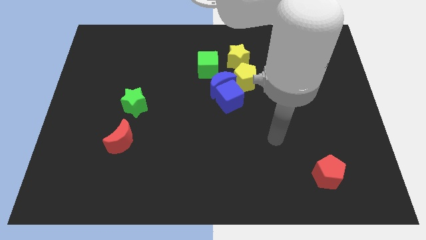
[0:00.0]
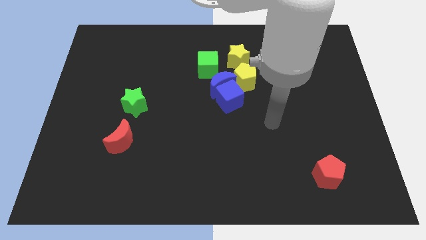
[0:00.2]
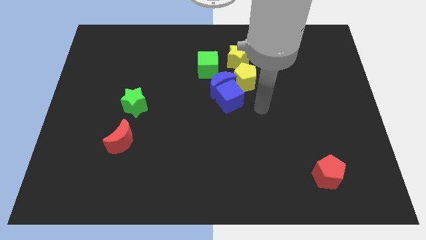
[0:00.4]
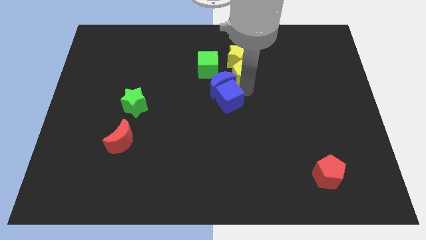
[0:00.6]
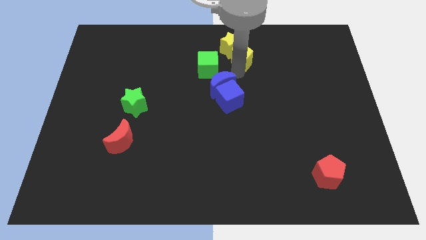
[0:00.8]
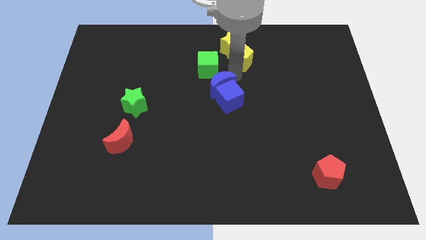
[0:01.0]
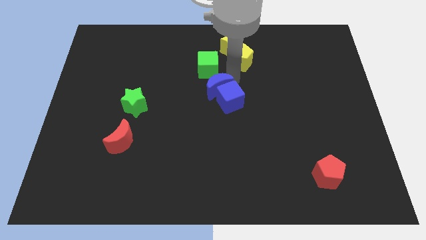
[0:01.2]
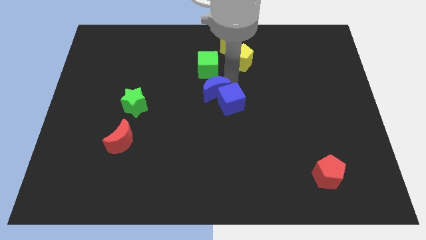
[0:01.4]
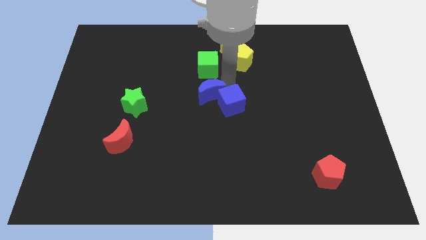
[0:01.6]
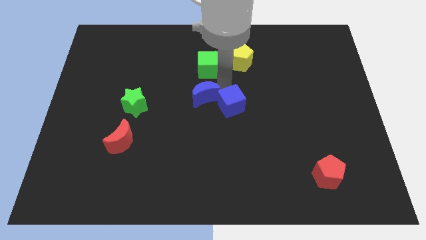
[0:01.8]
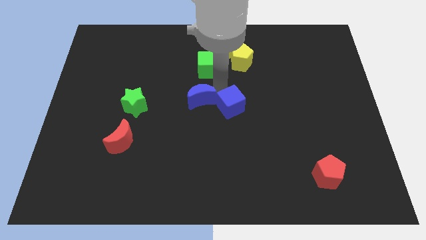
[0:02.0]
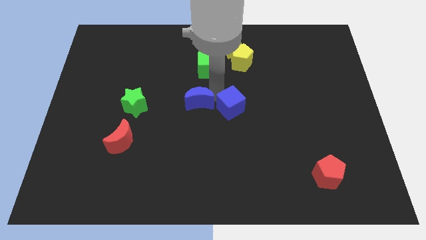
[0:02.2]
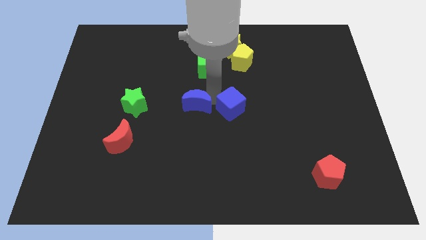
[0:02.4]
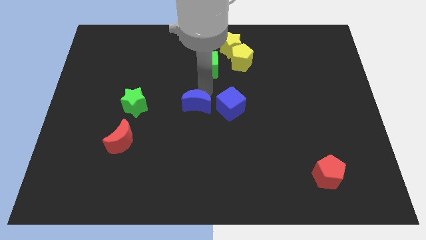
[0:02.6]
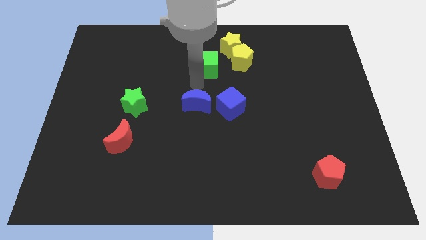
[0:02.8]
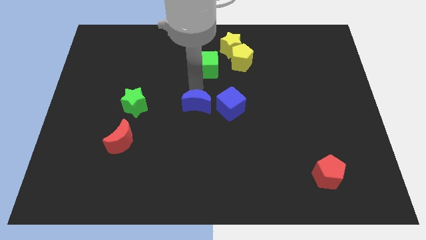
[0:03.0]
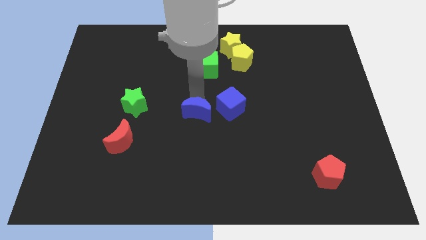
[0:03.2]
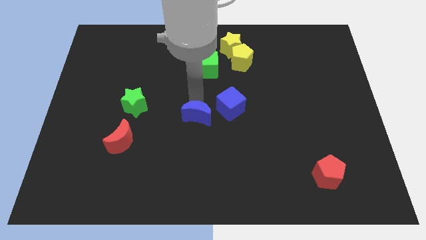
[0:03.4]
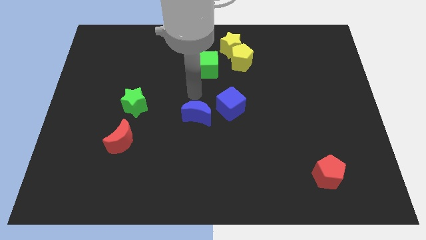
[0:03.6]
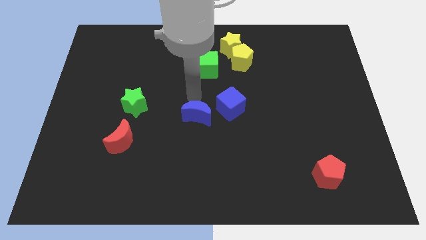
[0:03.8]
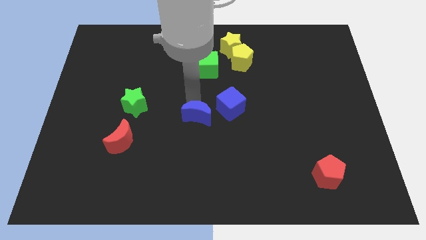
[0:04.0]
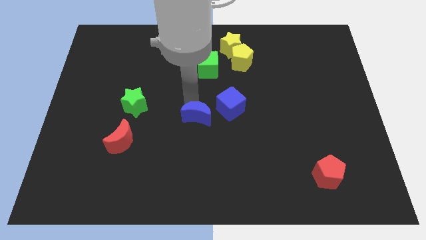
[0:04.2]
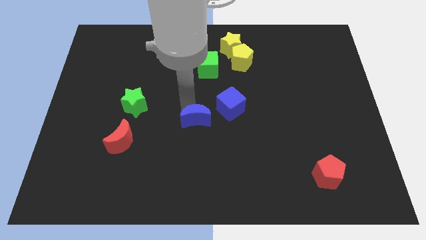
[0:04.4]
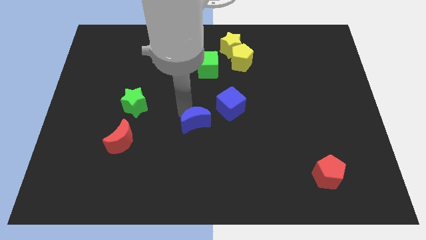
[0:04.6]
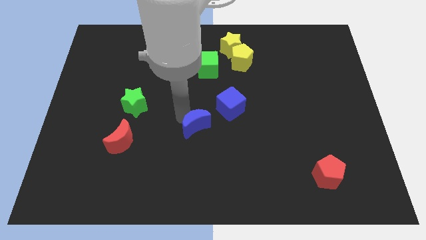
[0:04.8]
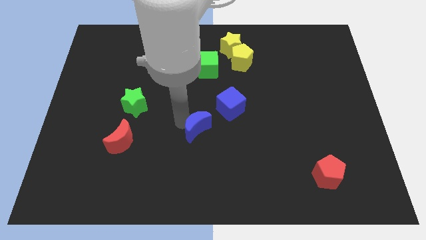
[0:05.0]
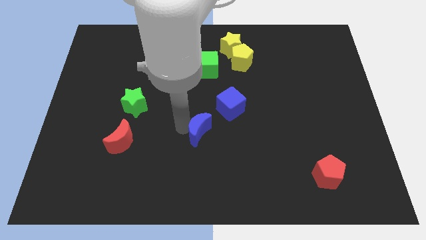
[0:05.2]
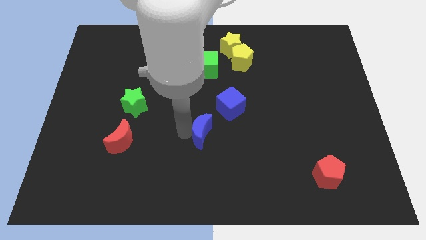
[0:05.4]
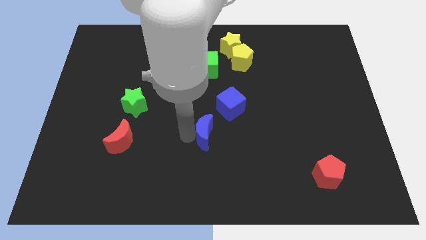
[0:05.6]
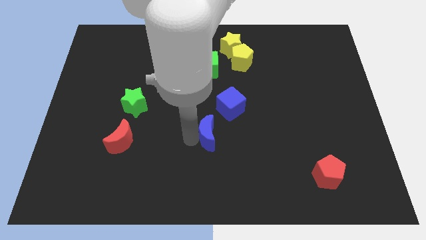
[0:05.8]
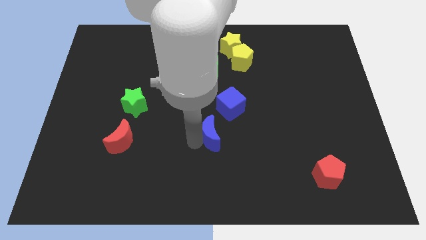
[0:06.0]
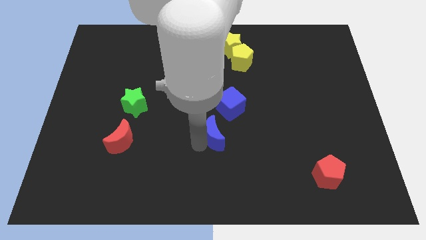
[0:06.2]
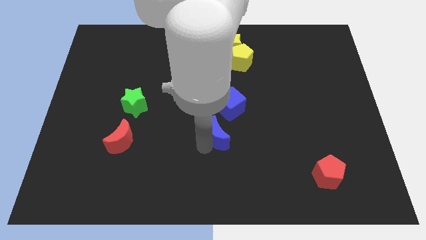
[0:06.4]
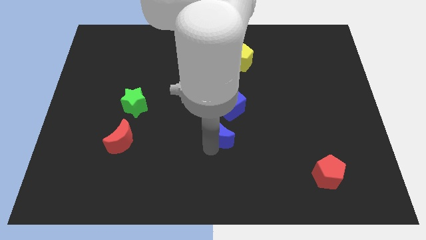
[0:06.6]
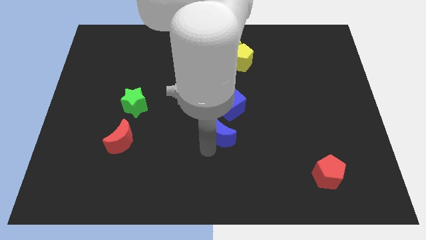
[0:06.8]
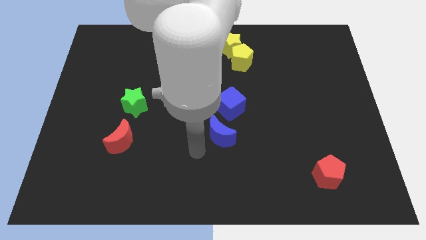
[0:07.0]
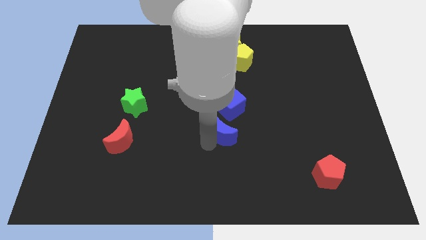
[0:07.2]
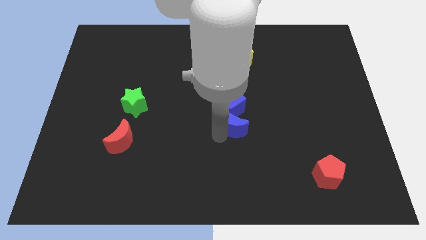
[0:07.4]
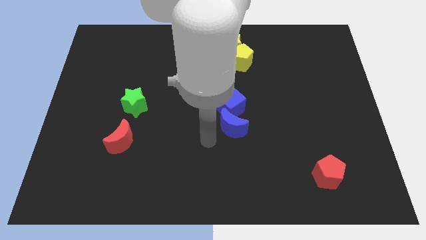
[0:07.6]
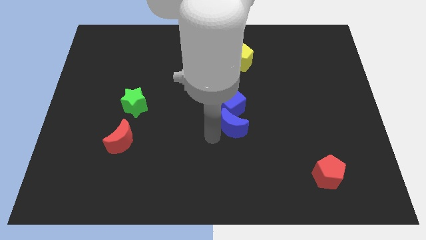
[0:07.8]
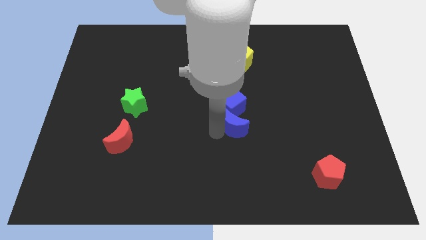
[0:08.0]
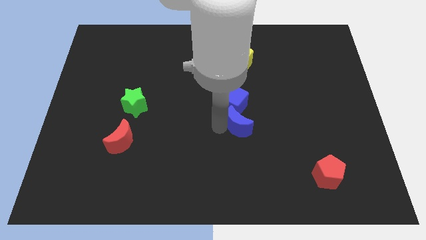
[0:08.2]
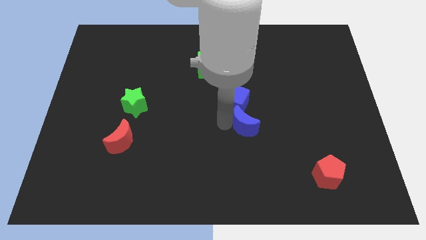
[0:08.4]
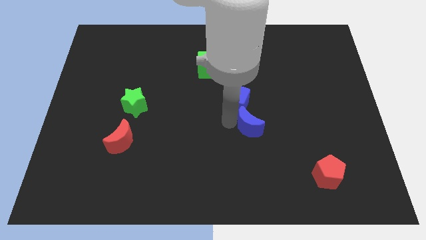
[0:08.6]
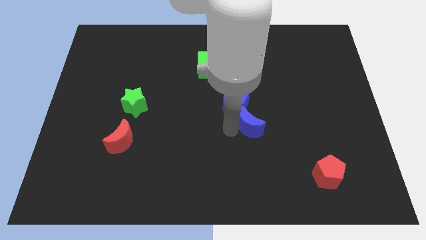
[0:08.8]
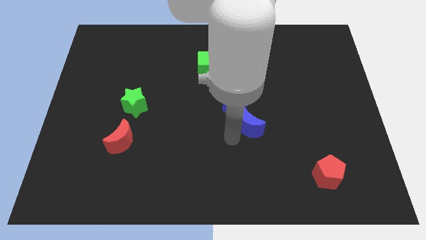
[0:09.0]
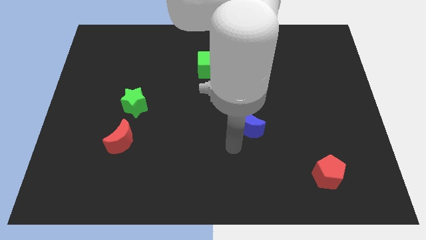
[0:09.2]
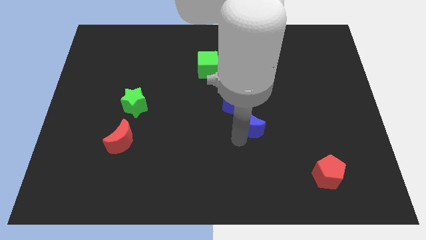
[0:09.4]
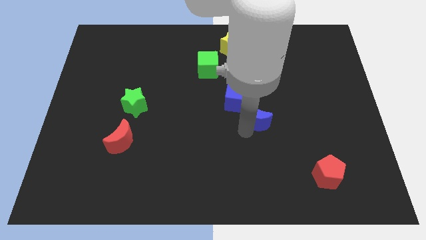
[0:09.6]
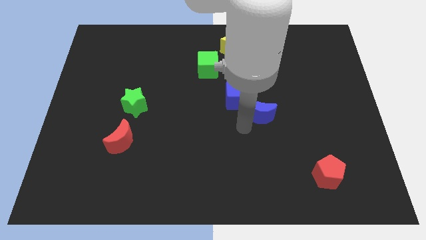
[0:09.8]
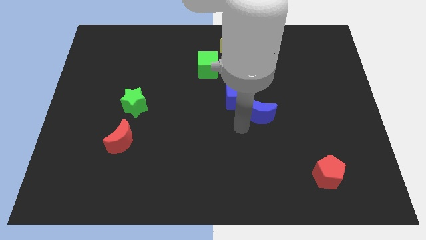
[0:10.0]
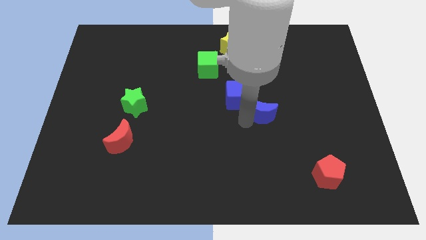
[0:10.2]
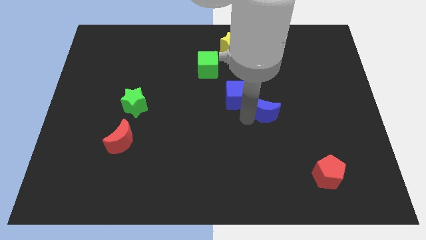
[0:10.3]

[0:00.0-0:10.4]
push the blue moon right a little

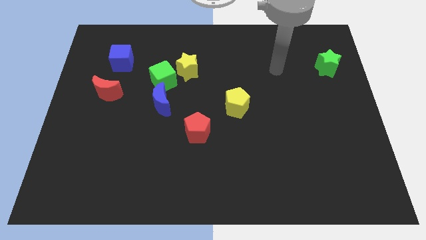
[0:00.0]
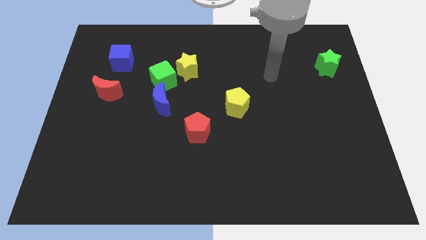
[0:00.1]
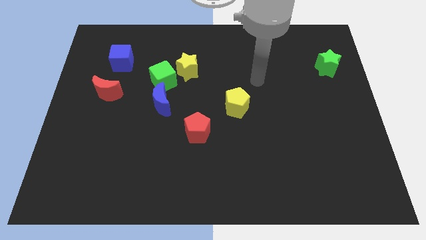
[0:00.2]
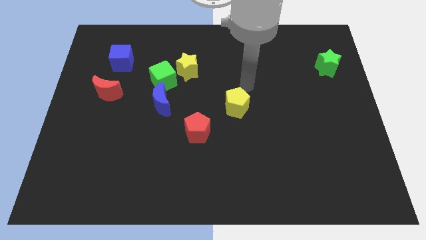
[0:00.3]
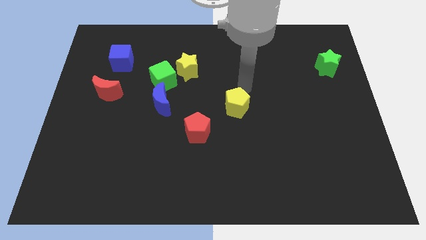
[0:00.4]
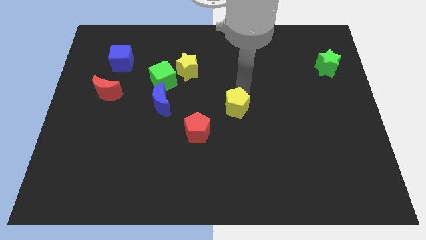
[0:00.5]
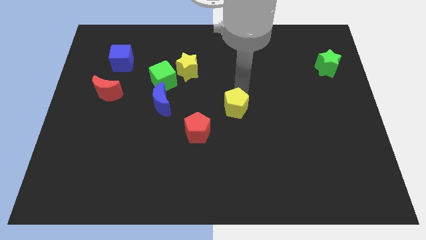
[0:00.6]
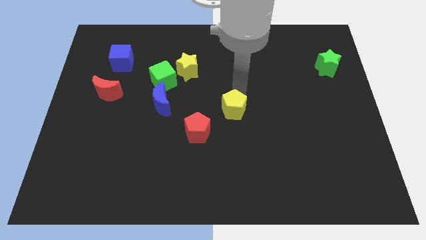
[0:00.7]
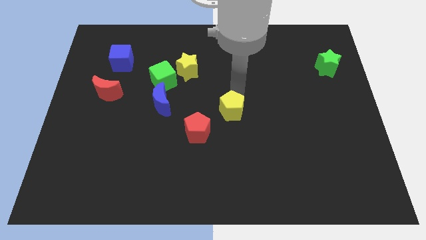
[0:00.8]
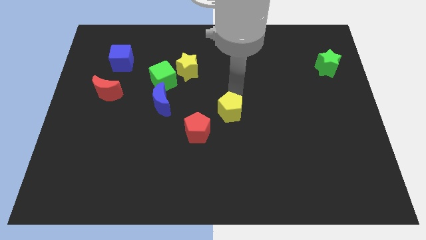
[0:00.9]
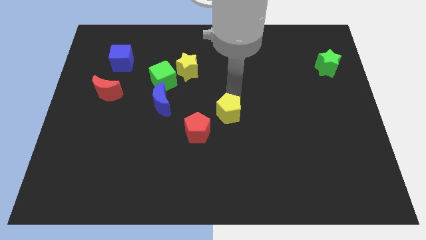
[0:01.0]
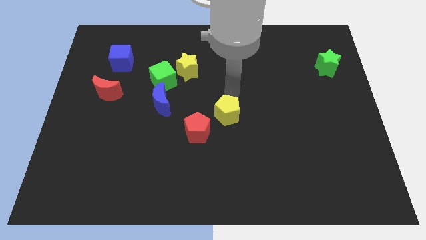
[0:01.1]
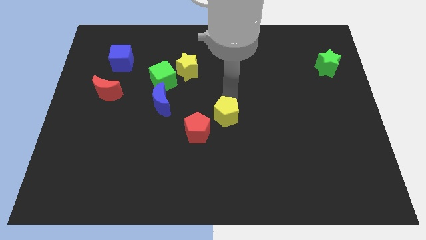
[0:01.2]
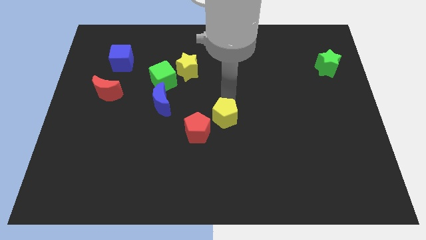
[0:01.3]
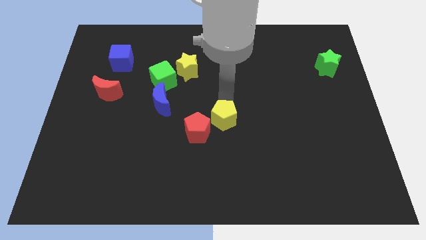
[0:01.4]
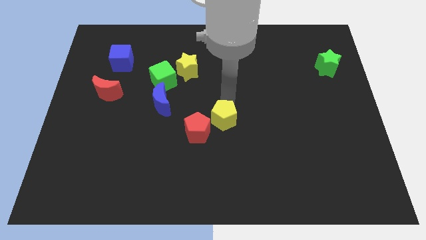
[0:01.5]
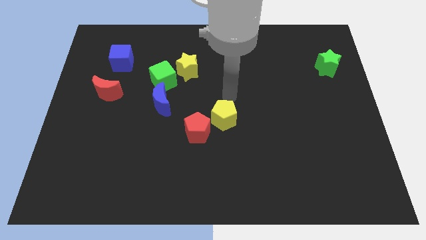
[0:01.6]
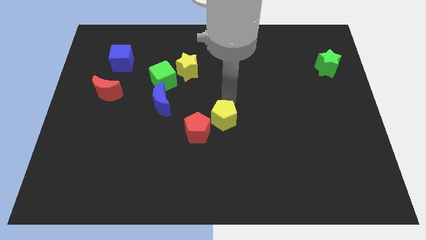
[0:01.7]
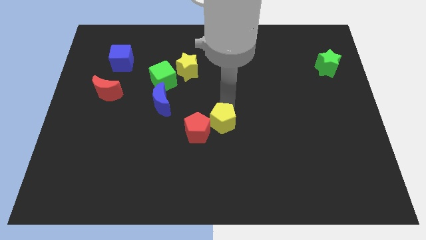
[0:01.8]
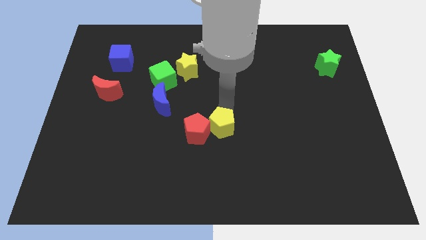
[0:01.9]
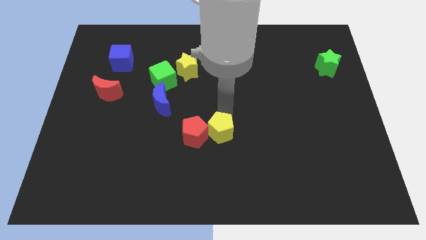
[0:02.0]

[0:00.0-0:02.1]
push the yellow pentagon slightly downwards and to the left diagonally

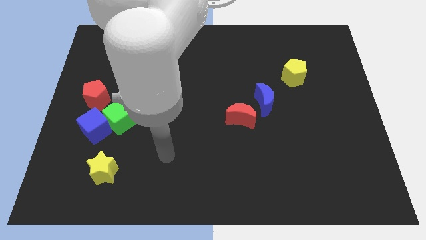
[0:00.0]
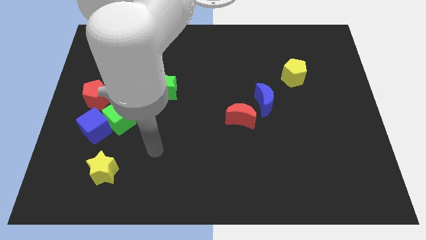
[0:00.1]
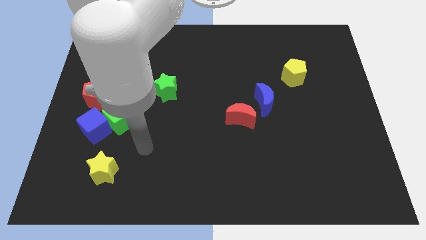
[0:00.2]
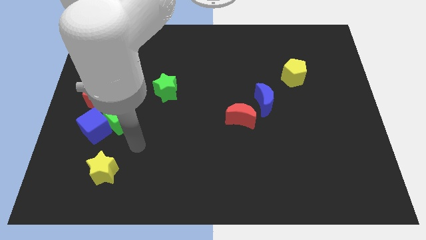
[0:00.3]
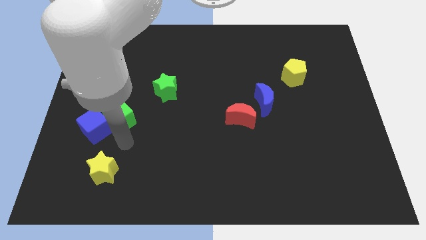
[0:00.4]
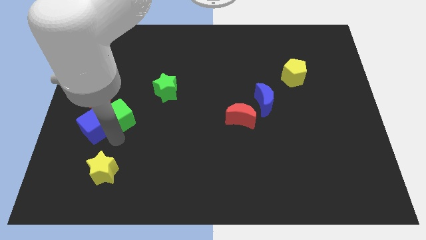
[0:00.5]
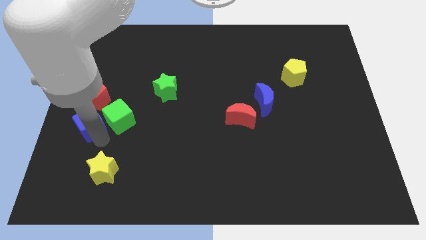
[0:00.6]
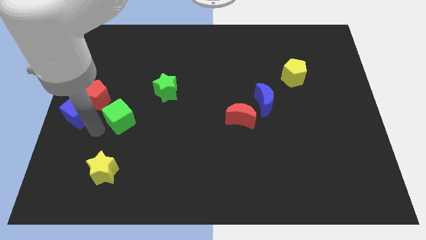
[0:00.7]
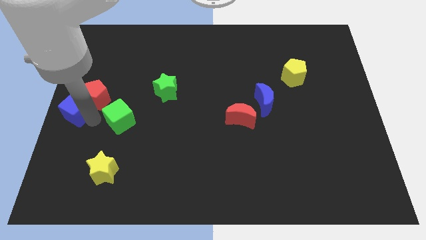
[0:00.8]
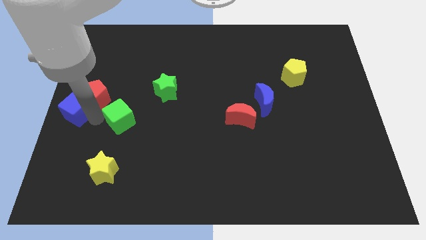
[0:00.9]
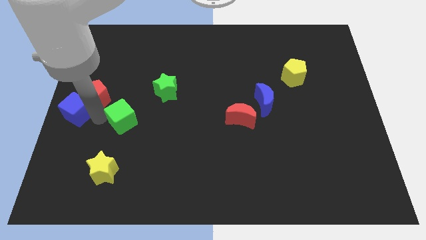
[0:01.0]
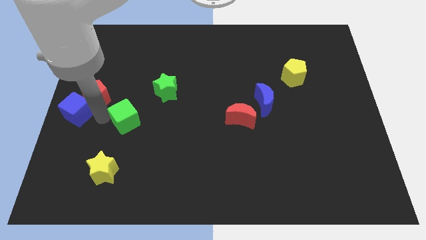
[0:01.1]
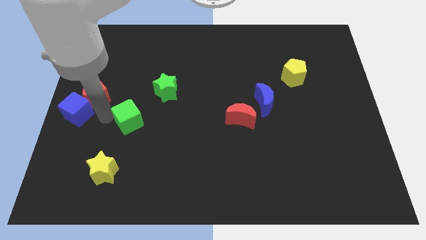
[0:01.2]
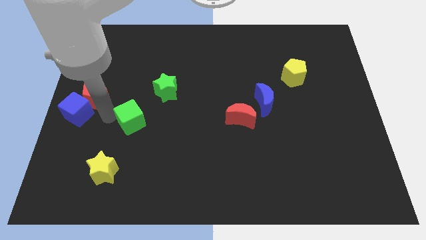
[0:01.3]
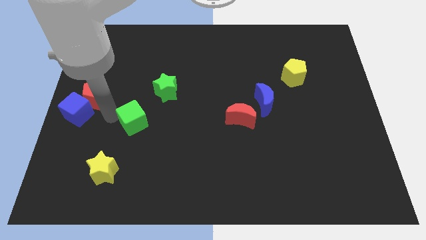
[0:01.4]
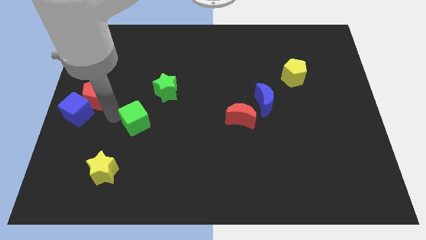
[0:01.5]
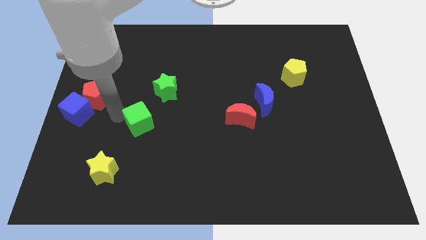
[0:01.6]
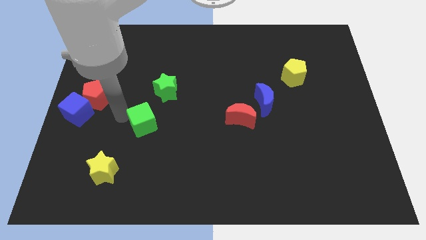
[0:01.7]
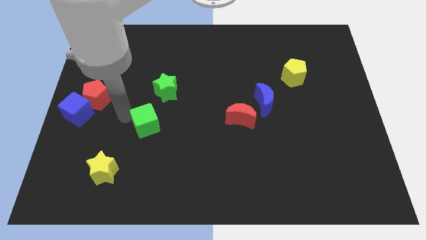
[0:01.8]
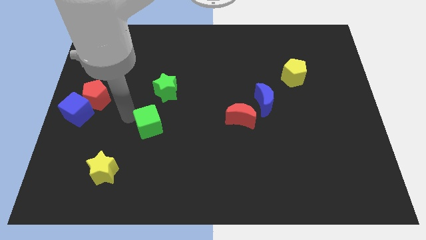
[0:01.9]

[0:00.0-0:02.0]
push the green cube to the right a little
